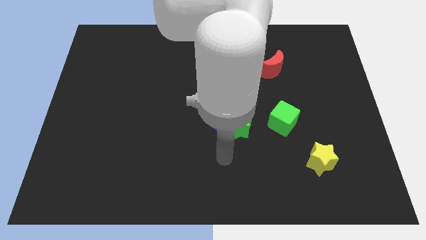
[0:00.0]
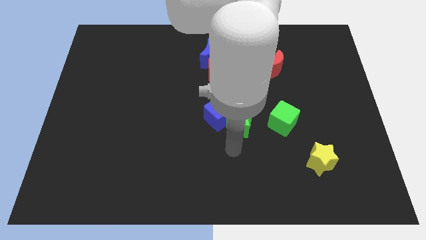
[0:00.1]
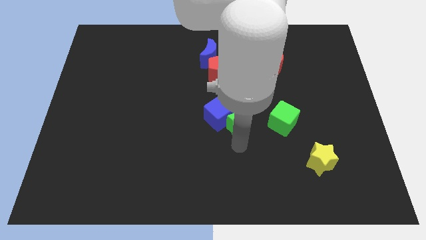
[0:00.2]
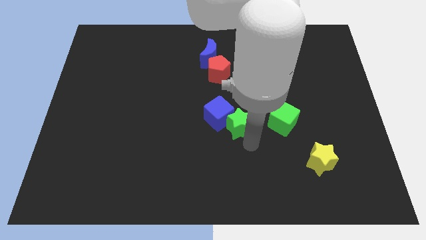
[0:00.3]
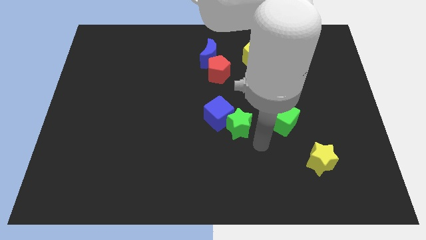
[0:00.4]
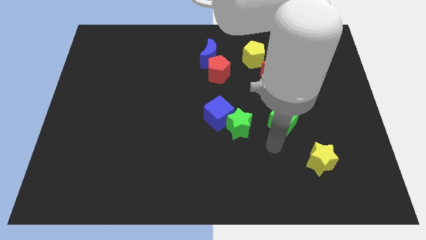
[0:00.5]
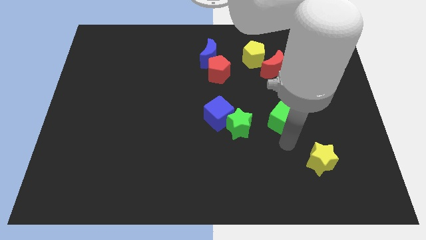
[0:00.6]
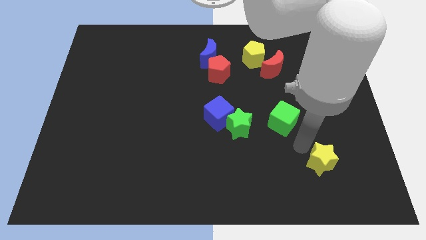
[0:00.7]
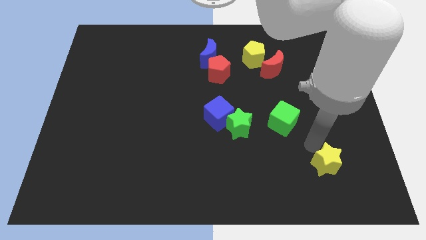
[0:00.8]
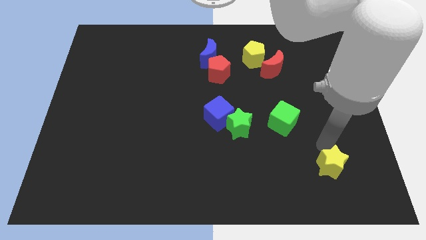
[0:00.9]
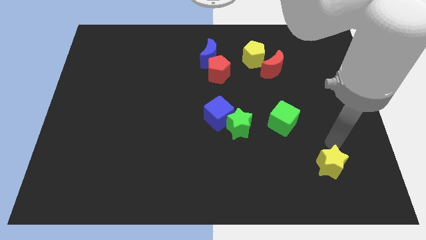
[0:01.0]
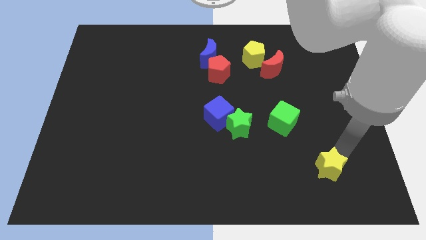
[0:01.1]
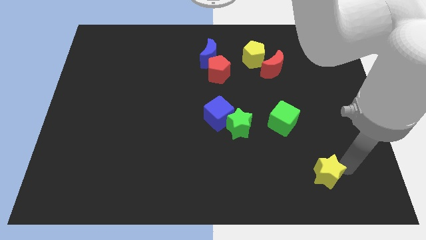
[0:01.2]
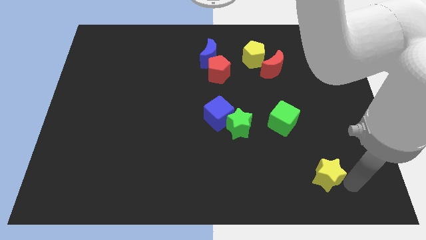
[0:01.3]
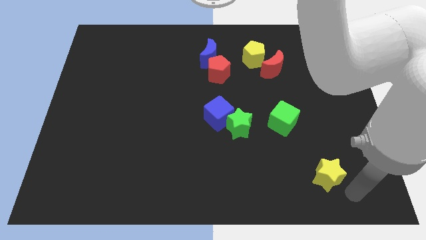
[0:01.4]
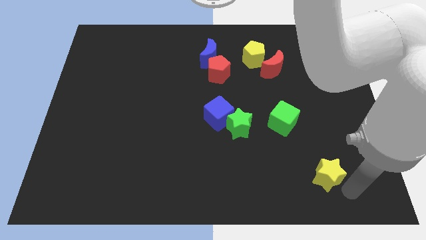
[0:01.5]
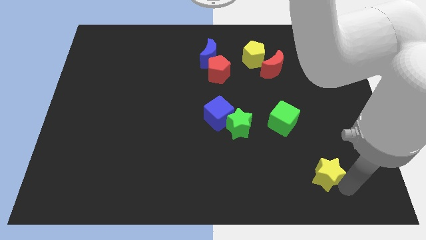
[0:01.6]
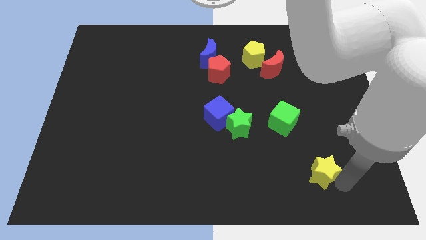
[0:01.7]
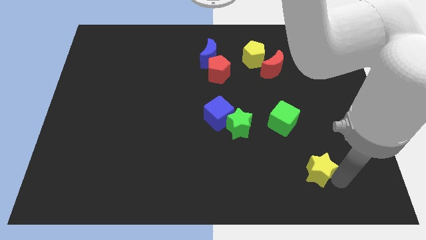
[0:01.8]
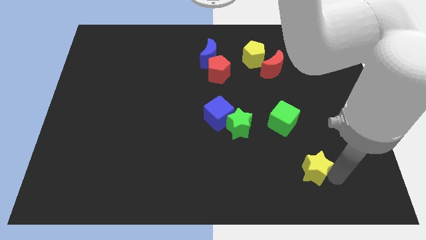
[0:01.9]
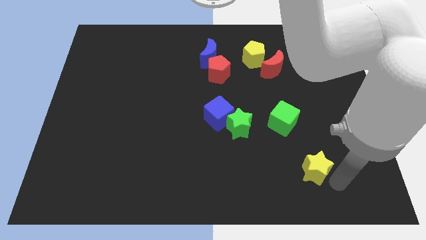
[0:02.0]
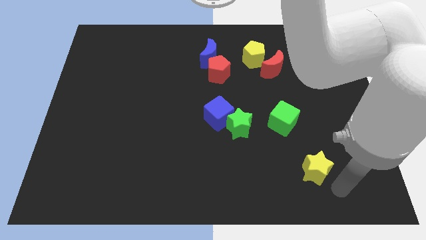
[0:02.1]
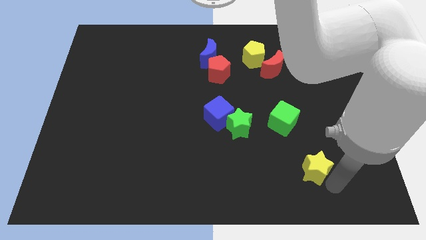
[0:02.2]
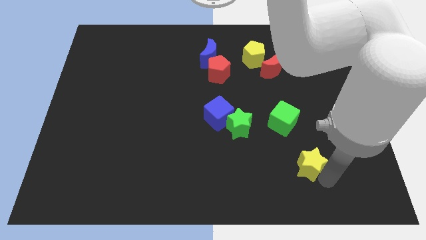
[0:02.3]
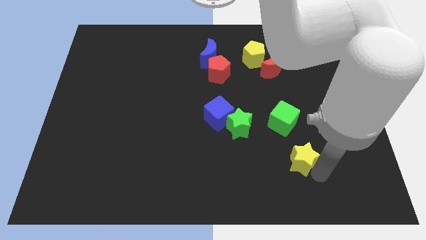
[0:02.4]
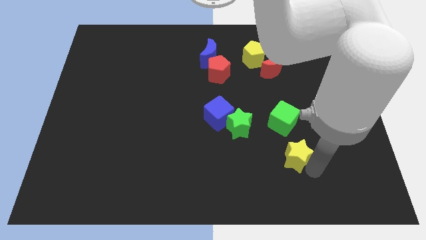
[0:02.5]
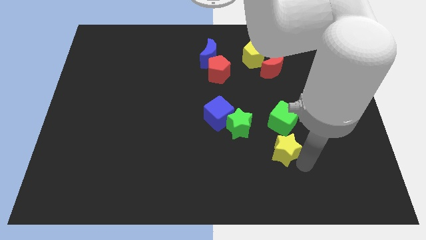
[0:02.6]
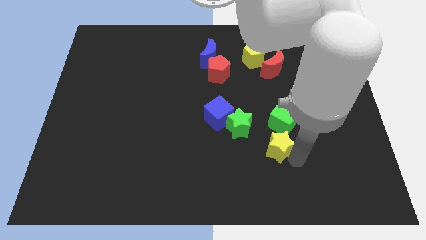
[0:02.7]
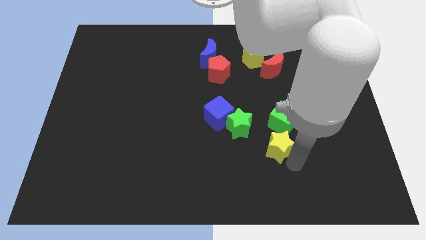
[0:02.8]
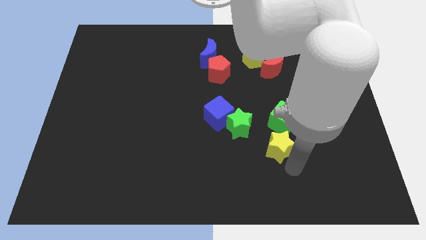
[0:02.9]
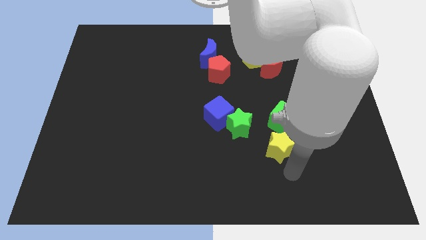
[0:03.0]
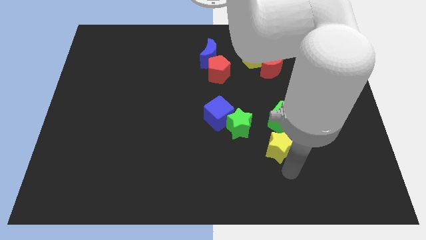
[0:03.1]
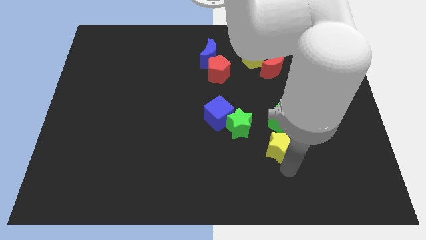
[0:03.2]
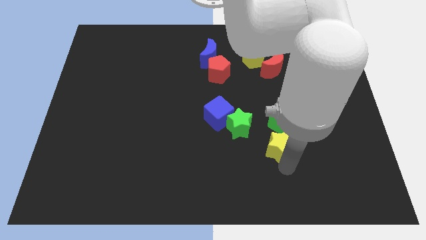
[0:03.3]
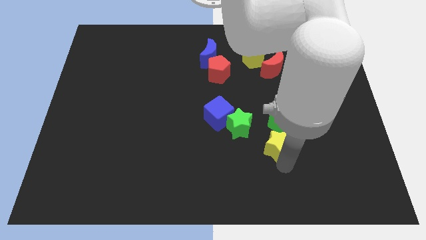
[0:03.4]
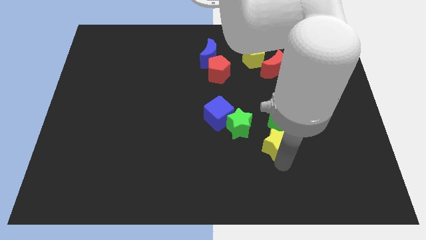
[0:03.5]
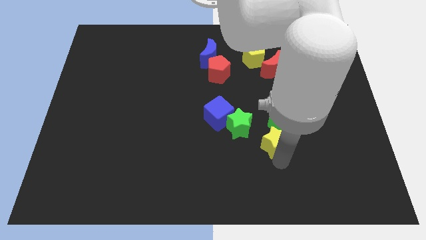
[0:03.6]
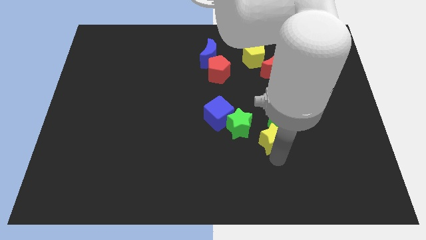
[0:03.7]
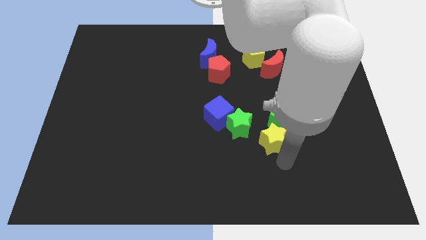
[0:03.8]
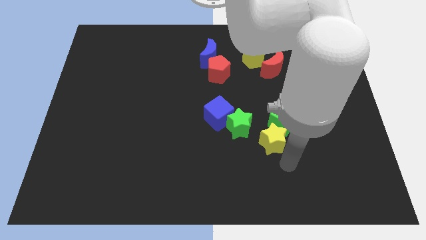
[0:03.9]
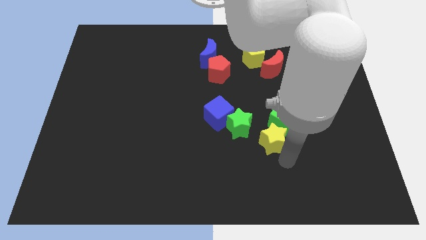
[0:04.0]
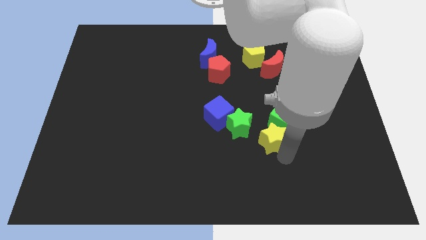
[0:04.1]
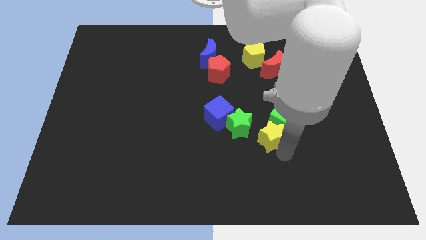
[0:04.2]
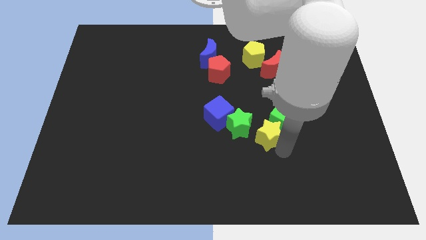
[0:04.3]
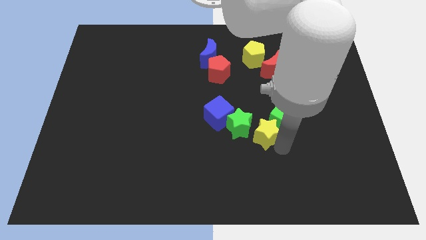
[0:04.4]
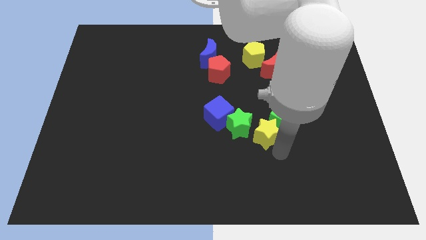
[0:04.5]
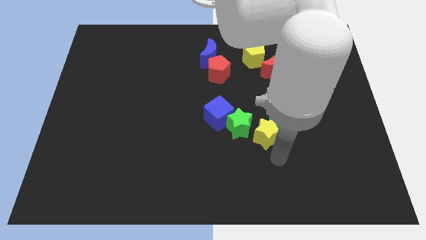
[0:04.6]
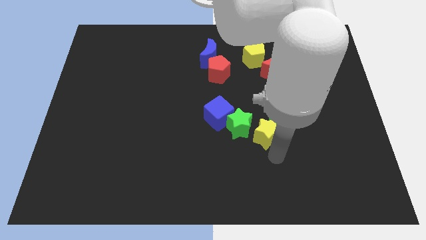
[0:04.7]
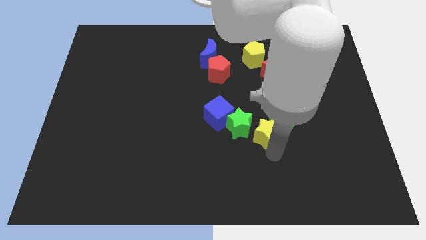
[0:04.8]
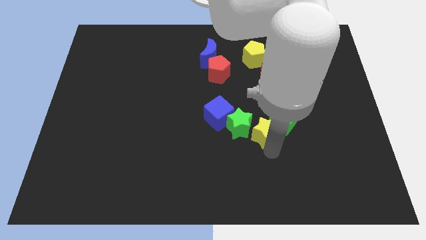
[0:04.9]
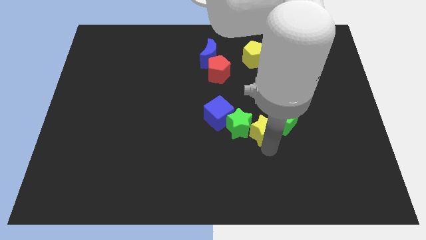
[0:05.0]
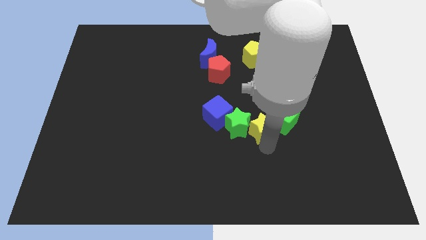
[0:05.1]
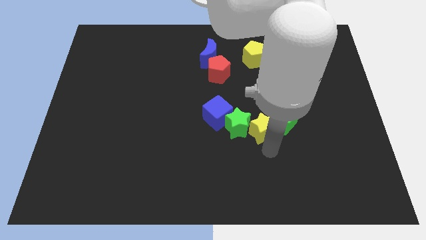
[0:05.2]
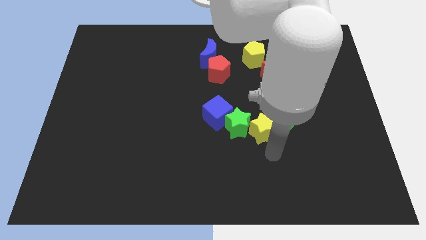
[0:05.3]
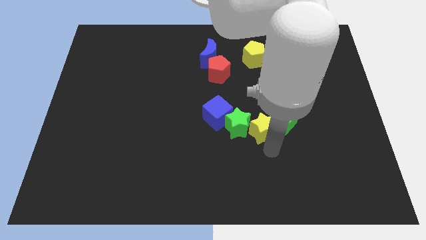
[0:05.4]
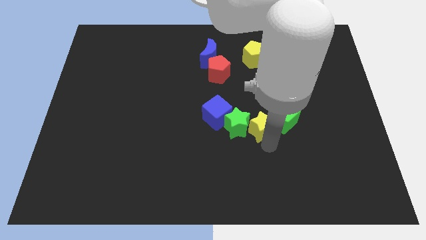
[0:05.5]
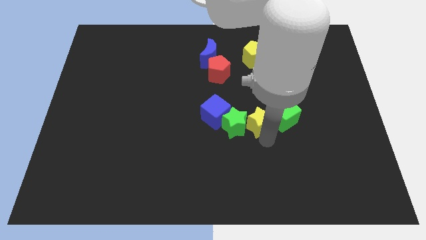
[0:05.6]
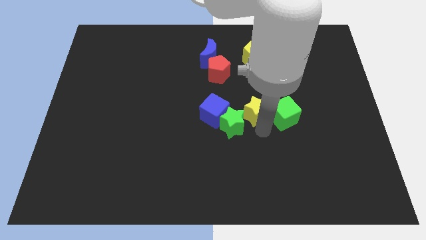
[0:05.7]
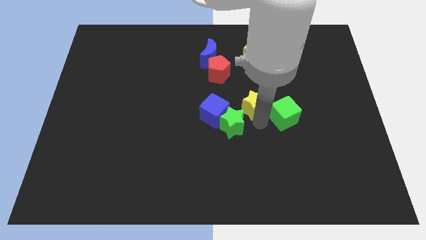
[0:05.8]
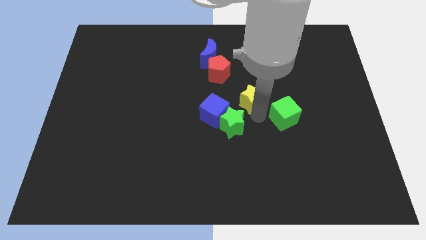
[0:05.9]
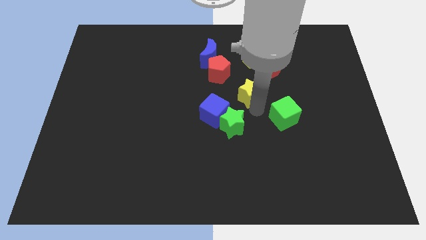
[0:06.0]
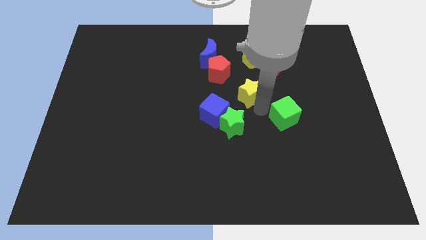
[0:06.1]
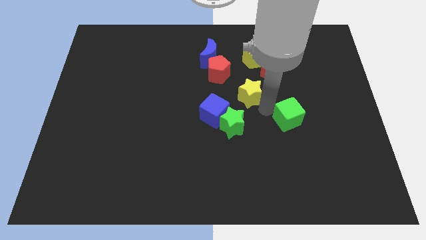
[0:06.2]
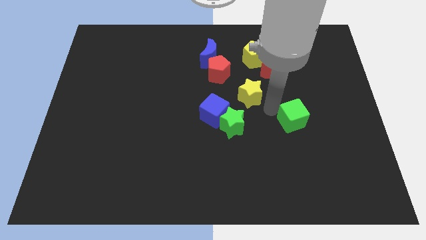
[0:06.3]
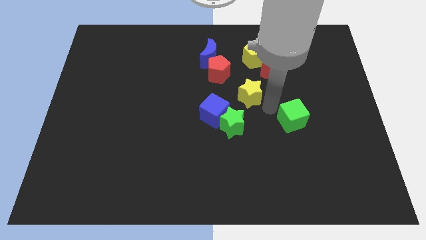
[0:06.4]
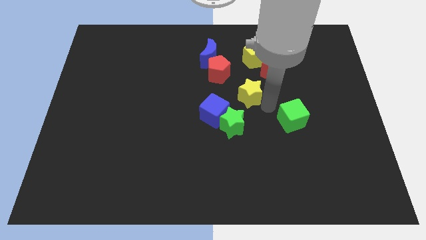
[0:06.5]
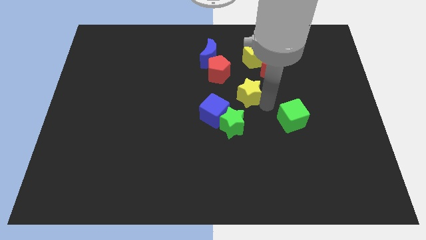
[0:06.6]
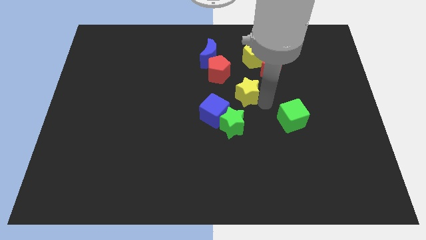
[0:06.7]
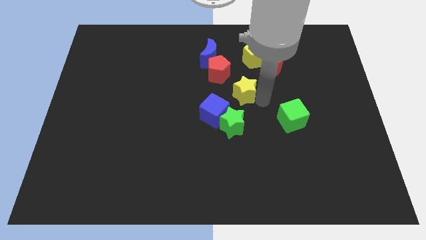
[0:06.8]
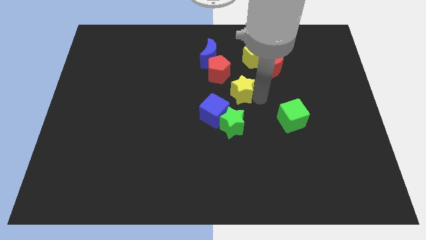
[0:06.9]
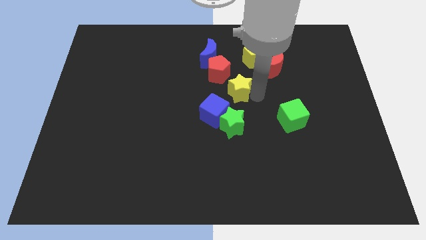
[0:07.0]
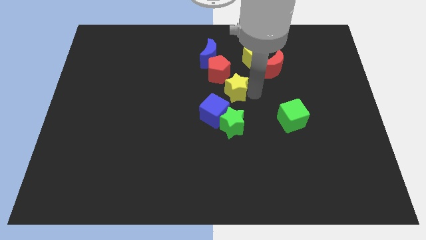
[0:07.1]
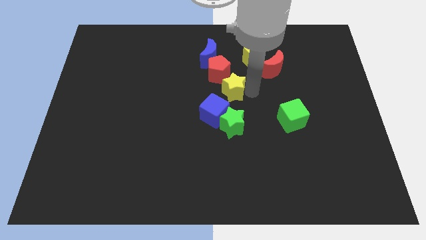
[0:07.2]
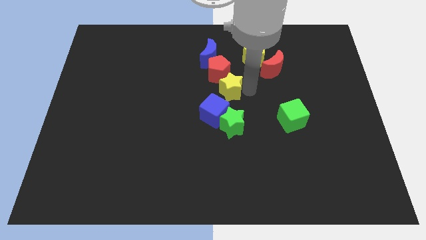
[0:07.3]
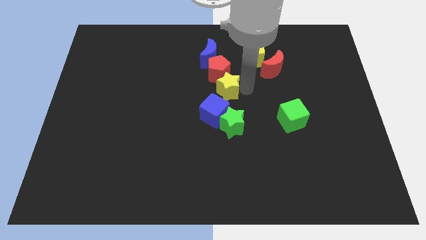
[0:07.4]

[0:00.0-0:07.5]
move the yellow star close to the red pentagon
